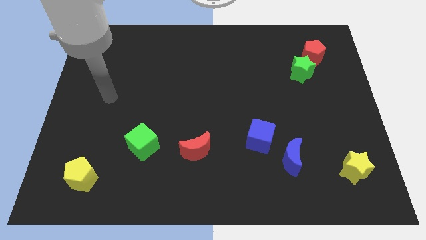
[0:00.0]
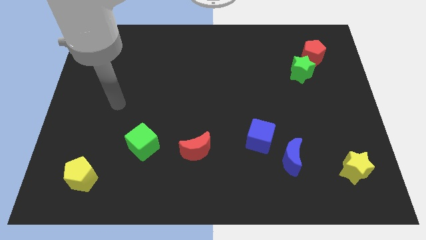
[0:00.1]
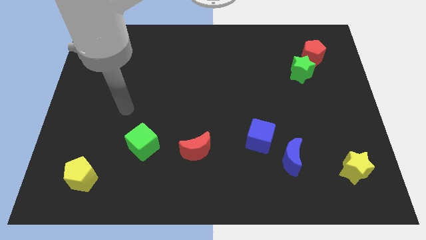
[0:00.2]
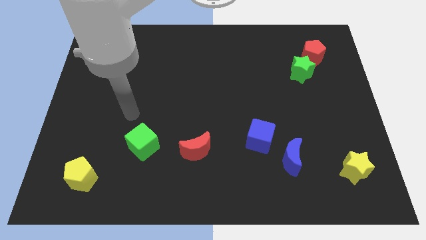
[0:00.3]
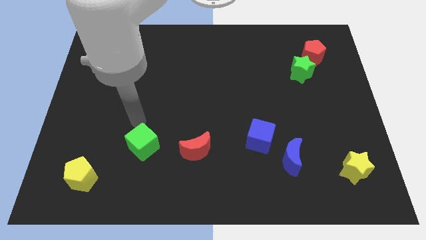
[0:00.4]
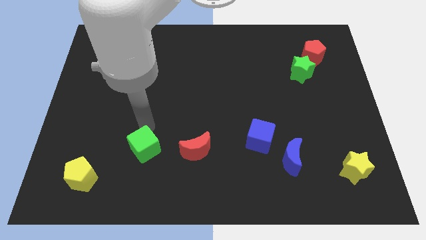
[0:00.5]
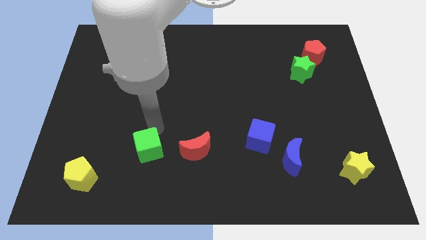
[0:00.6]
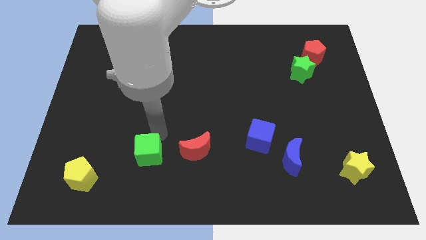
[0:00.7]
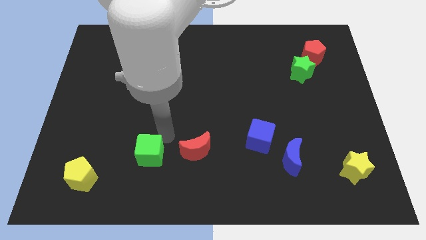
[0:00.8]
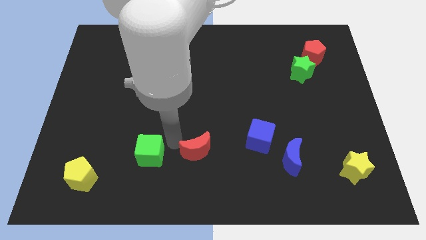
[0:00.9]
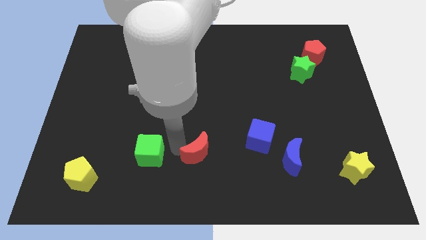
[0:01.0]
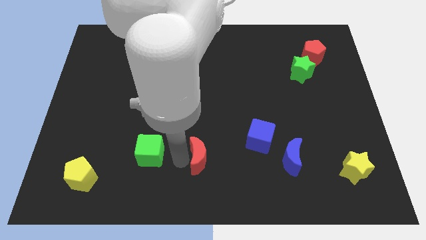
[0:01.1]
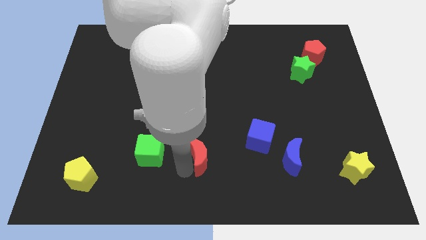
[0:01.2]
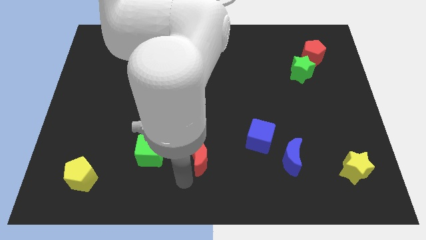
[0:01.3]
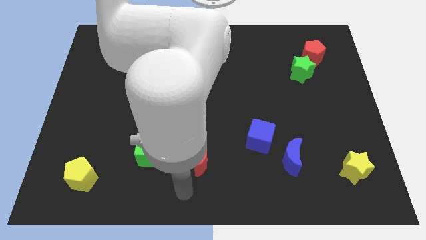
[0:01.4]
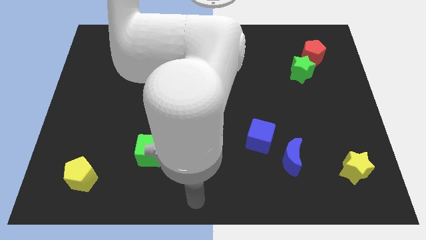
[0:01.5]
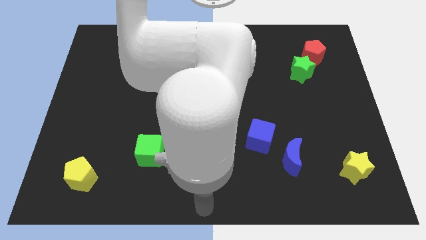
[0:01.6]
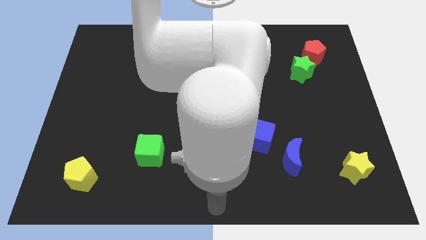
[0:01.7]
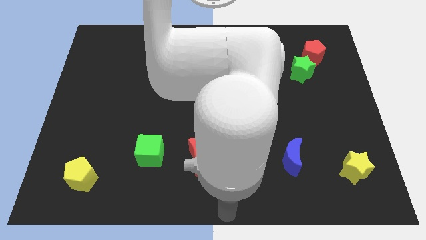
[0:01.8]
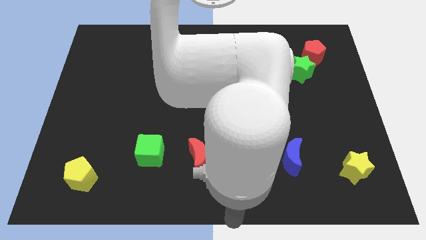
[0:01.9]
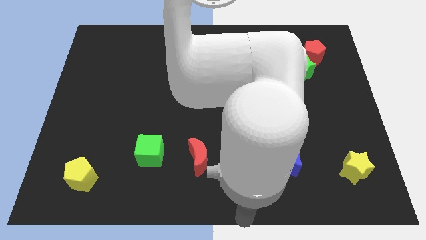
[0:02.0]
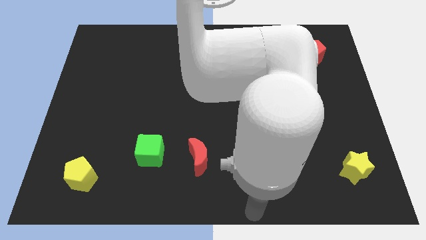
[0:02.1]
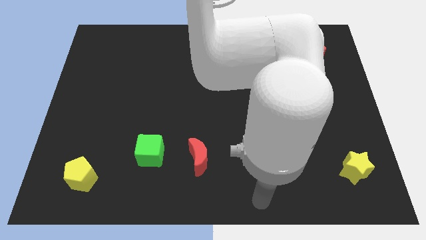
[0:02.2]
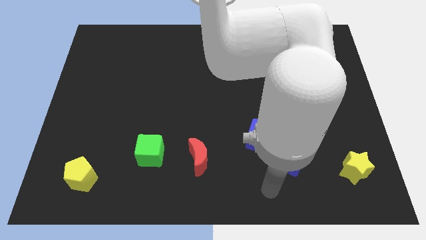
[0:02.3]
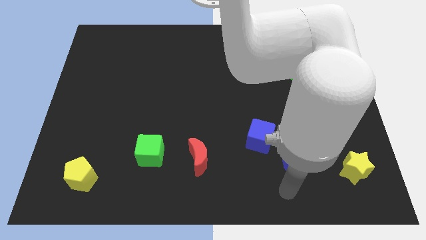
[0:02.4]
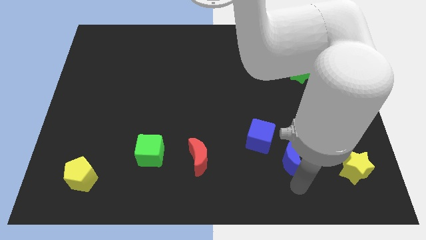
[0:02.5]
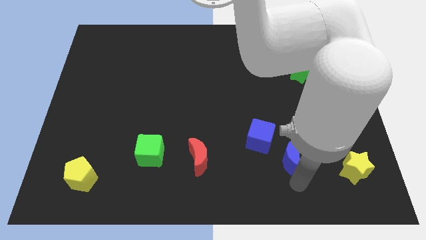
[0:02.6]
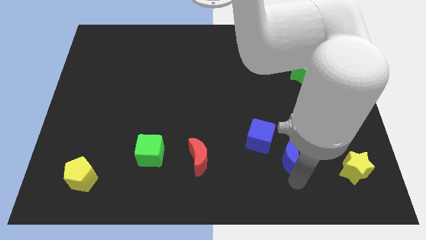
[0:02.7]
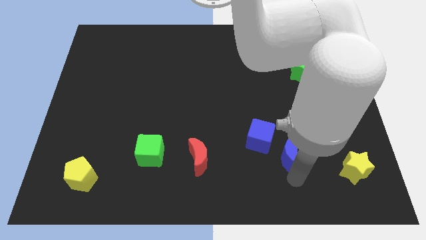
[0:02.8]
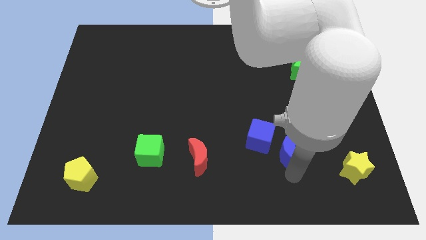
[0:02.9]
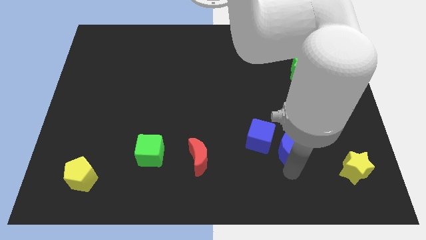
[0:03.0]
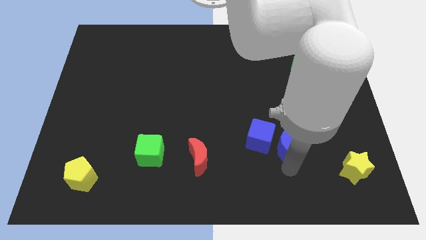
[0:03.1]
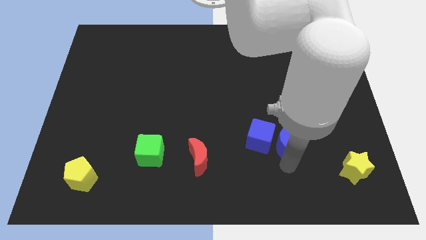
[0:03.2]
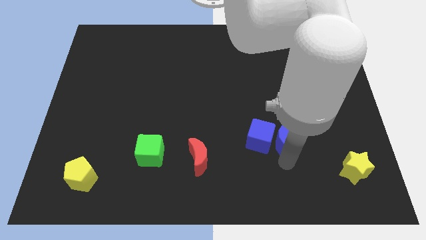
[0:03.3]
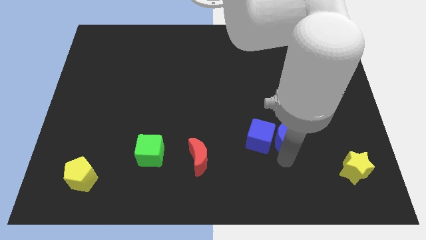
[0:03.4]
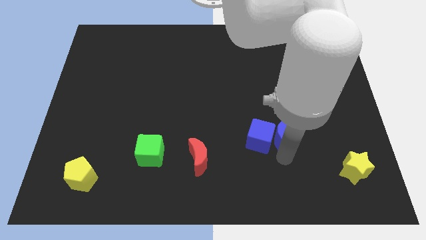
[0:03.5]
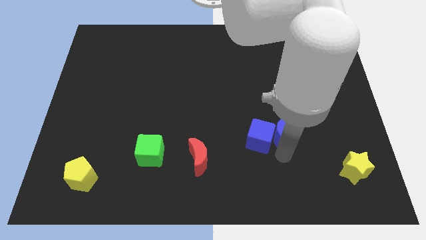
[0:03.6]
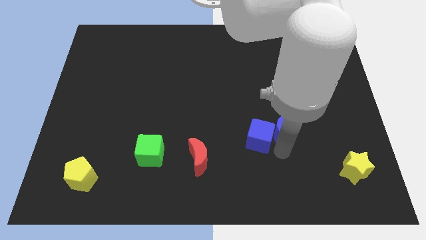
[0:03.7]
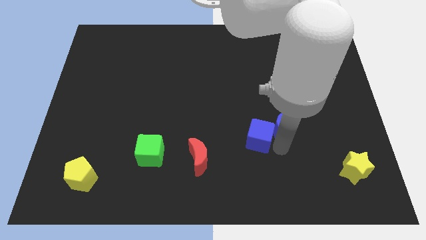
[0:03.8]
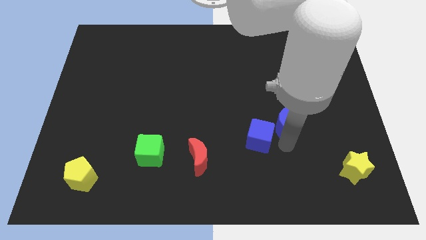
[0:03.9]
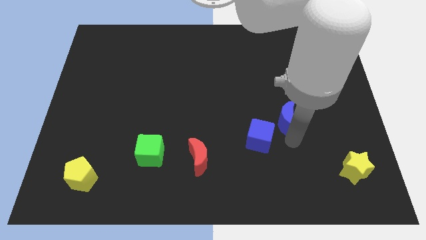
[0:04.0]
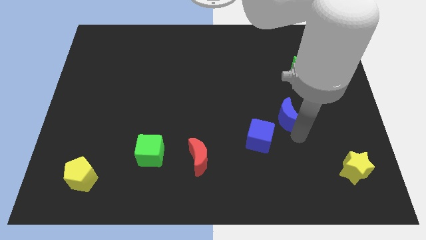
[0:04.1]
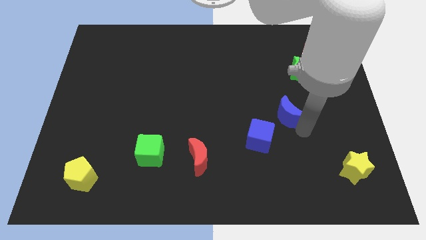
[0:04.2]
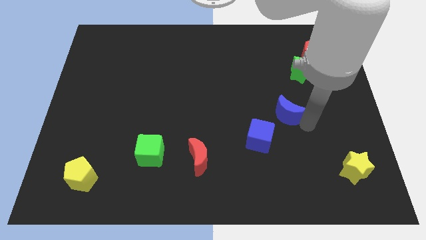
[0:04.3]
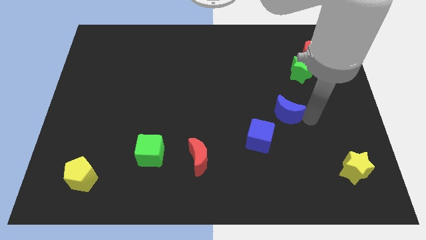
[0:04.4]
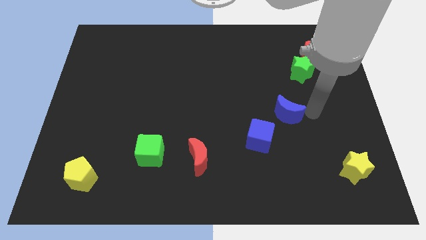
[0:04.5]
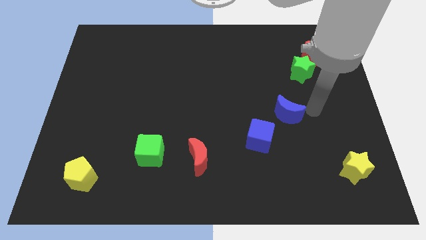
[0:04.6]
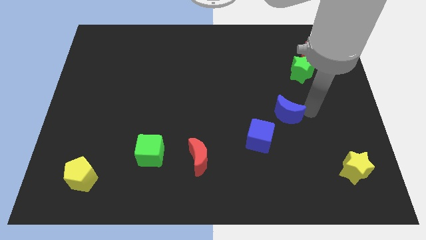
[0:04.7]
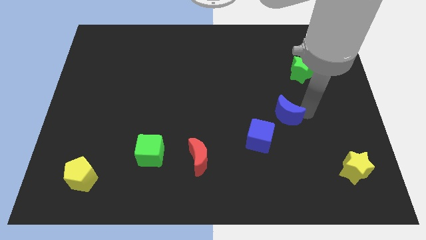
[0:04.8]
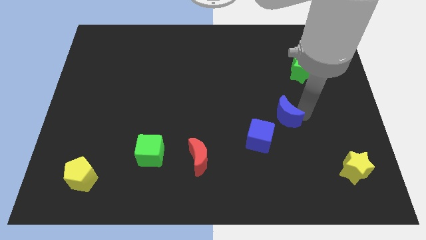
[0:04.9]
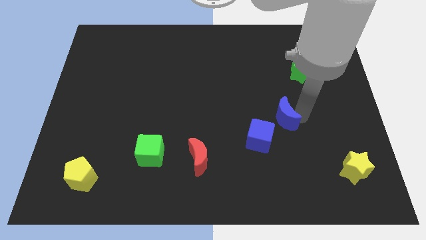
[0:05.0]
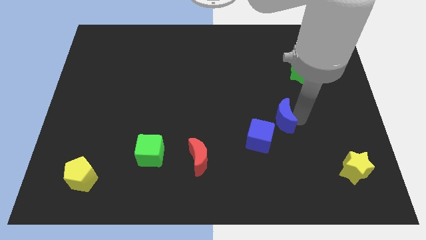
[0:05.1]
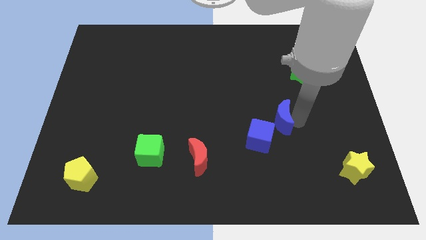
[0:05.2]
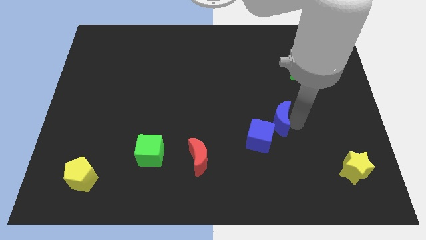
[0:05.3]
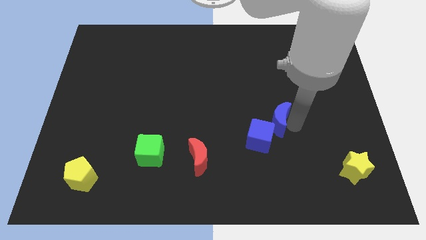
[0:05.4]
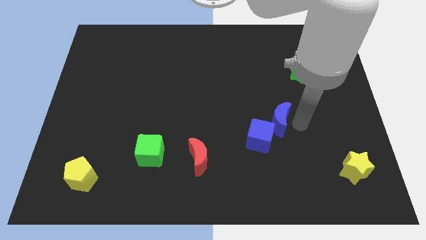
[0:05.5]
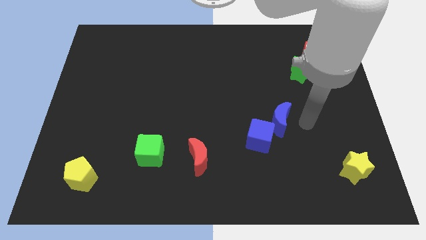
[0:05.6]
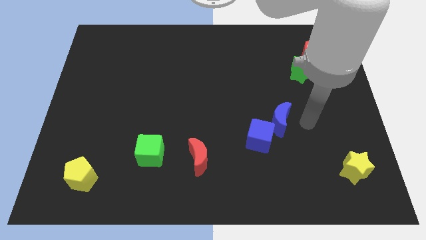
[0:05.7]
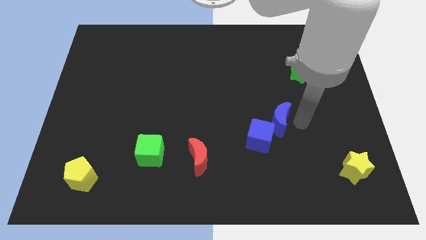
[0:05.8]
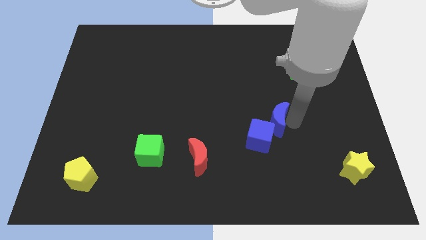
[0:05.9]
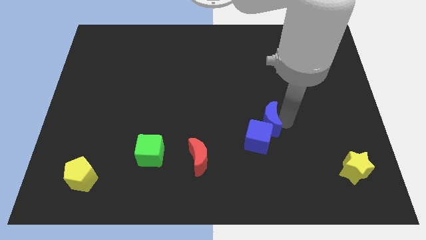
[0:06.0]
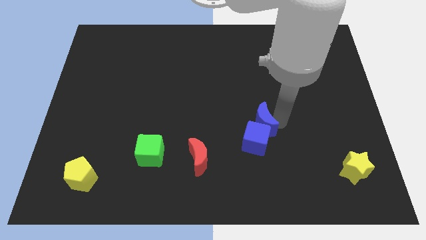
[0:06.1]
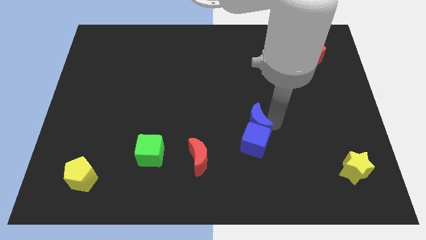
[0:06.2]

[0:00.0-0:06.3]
push the blue moon to the middle of the board

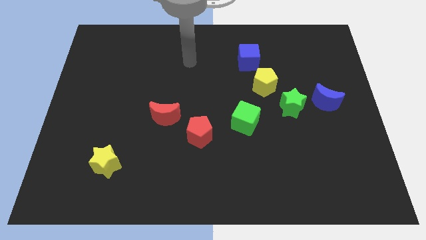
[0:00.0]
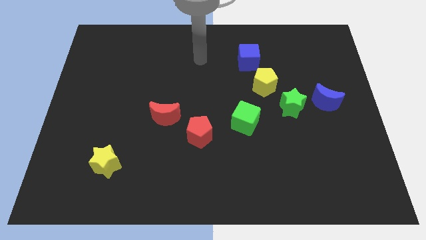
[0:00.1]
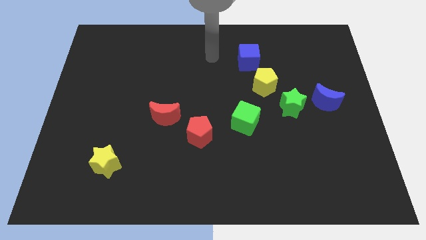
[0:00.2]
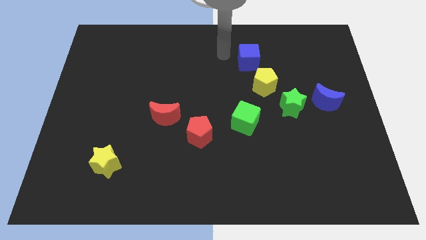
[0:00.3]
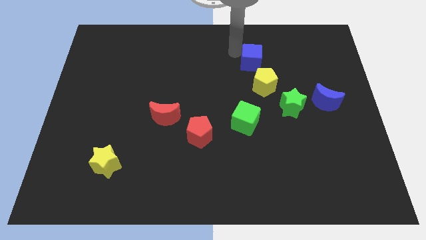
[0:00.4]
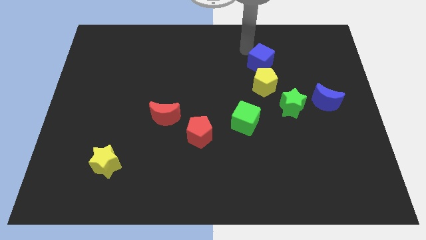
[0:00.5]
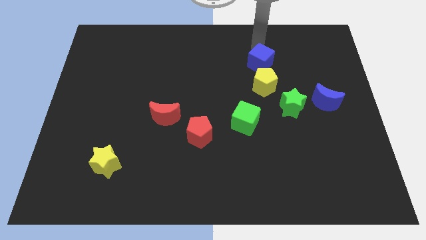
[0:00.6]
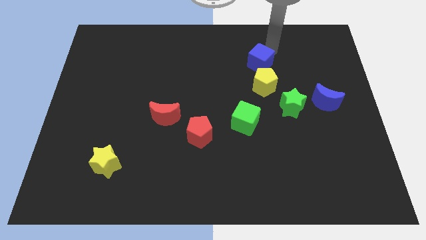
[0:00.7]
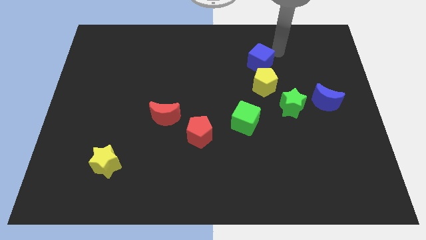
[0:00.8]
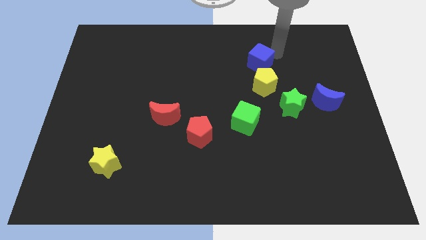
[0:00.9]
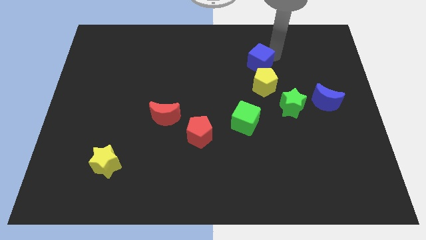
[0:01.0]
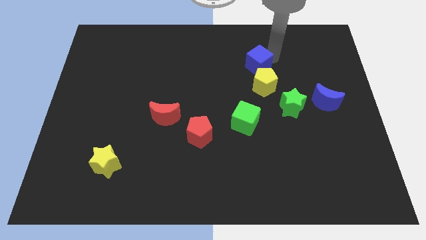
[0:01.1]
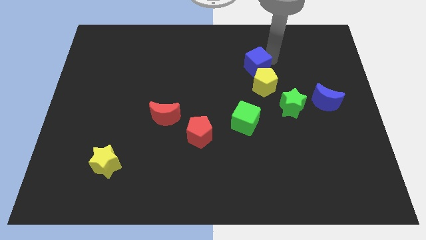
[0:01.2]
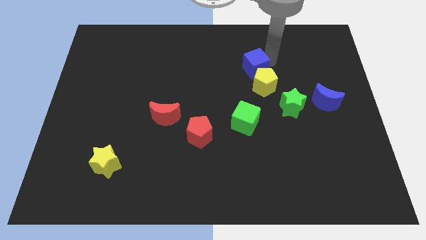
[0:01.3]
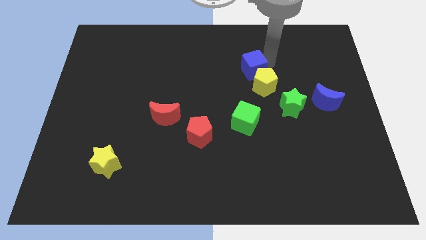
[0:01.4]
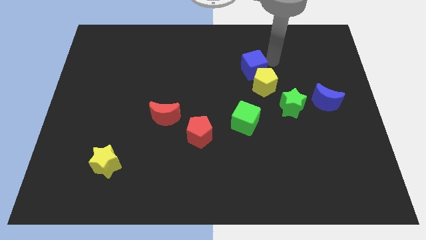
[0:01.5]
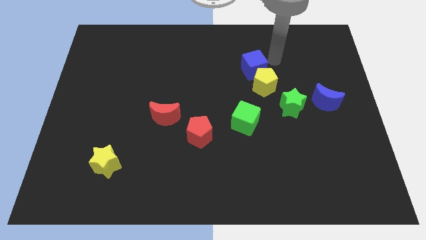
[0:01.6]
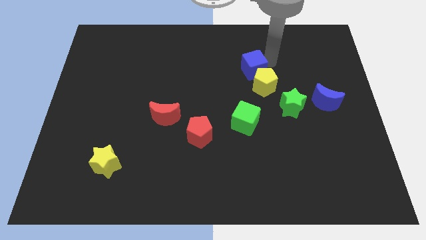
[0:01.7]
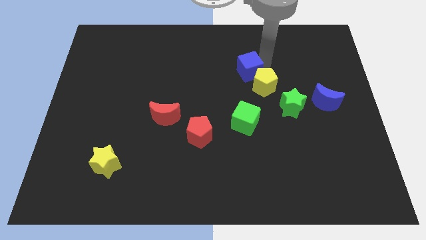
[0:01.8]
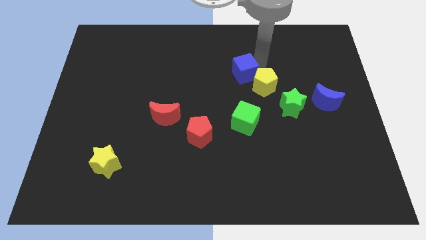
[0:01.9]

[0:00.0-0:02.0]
push the blue cube to the middle of the board
